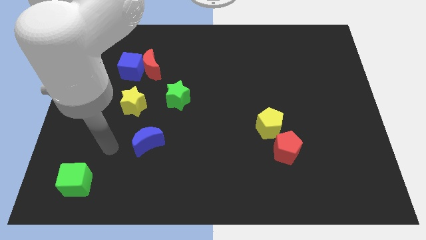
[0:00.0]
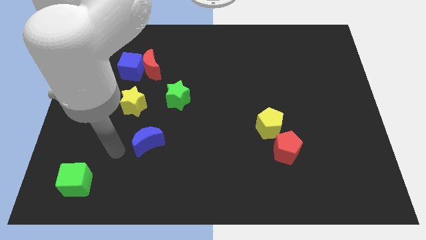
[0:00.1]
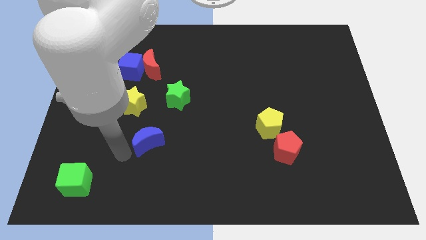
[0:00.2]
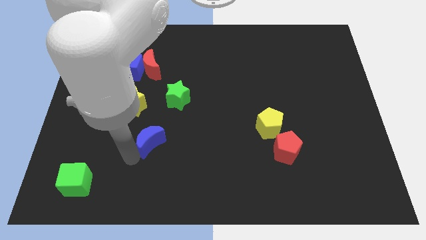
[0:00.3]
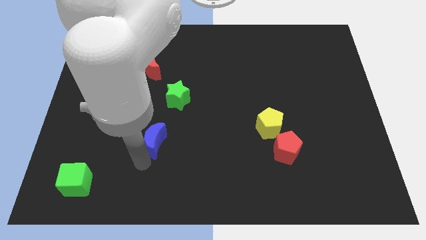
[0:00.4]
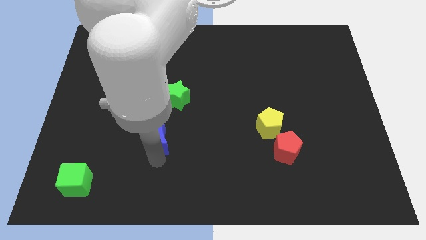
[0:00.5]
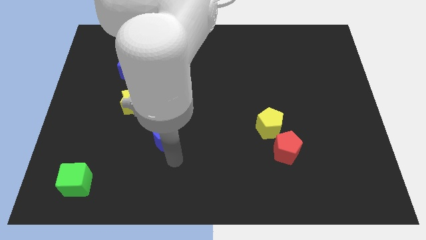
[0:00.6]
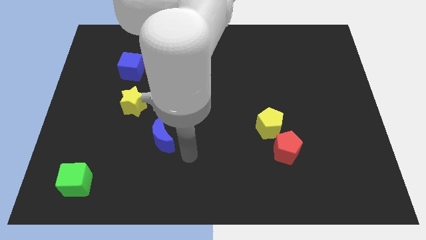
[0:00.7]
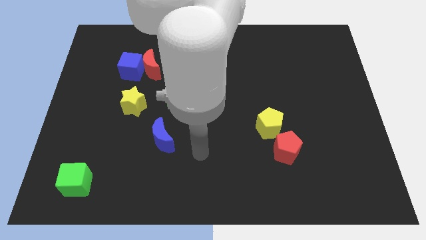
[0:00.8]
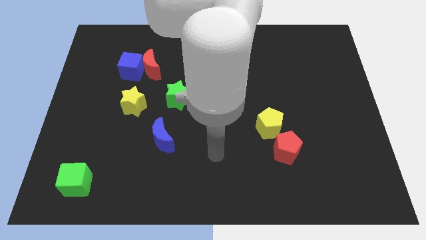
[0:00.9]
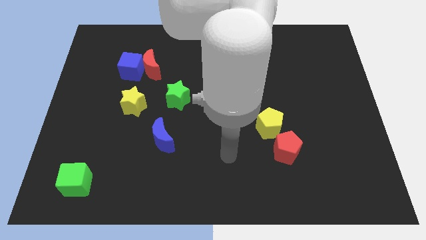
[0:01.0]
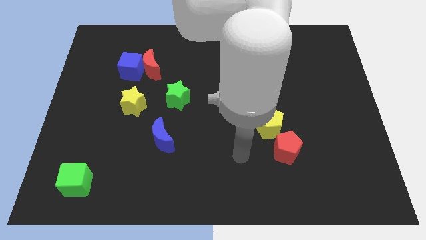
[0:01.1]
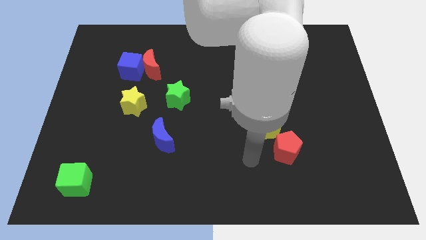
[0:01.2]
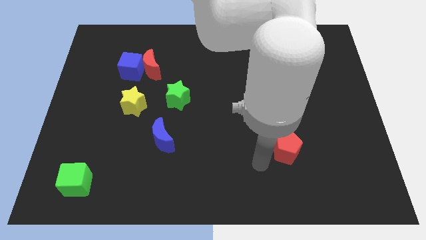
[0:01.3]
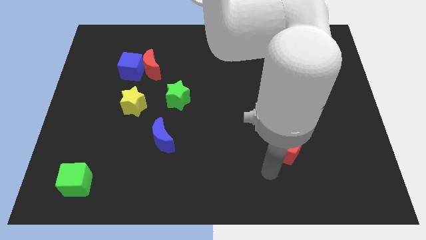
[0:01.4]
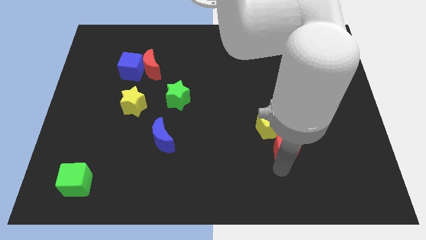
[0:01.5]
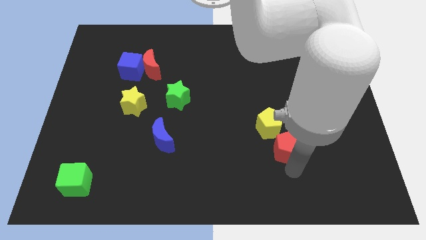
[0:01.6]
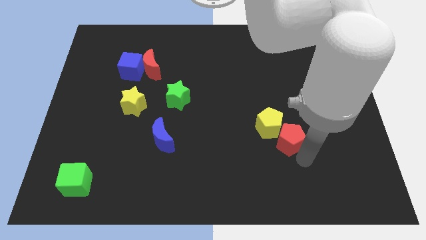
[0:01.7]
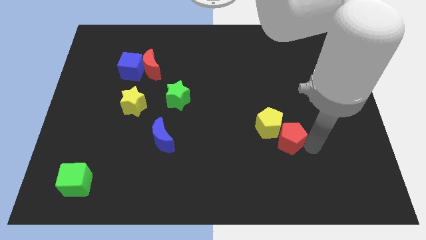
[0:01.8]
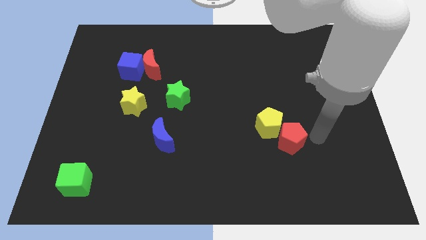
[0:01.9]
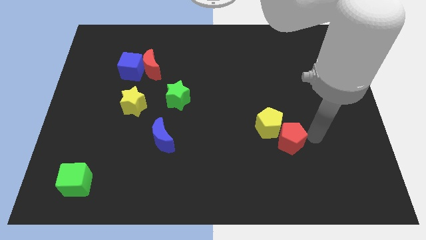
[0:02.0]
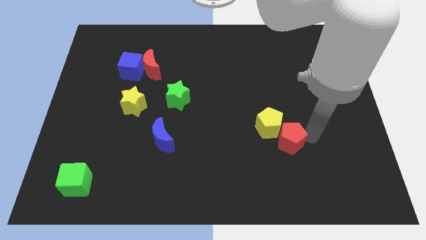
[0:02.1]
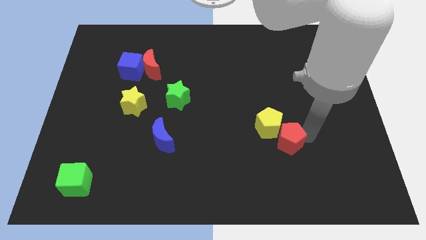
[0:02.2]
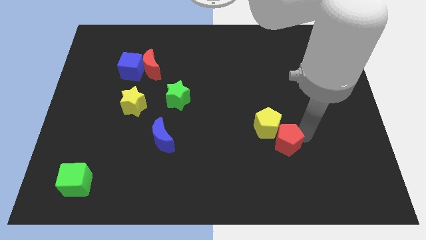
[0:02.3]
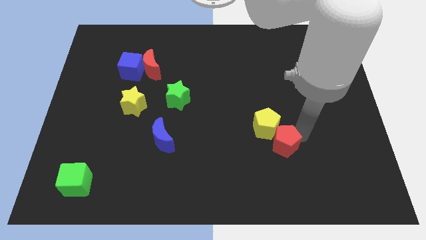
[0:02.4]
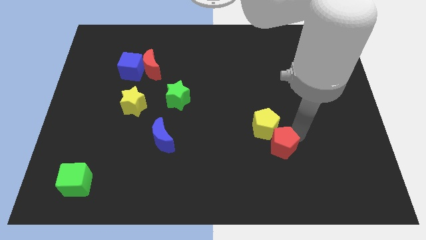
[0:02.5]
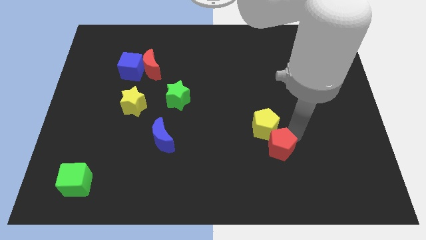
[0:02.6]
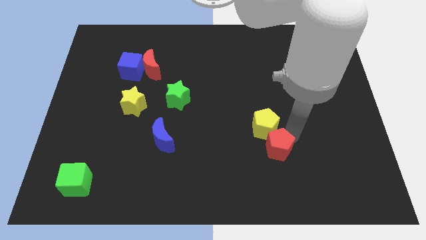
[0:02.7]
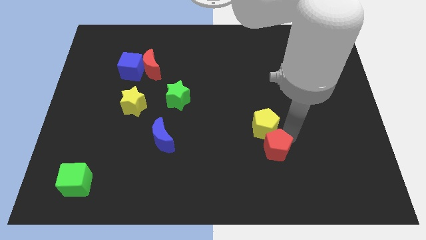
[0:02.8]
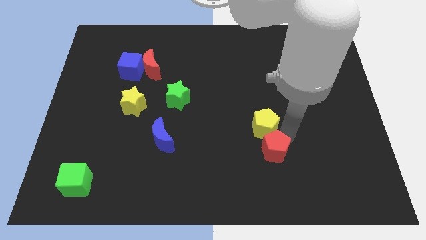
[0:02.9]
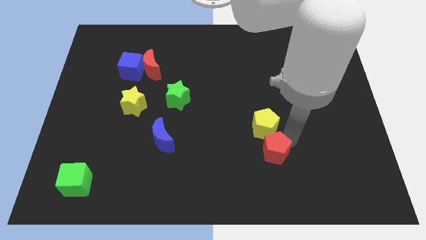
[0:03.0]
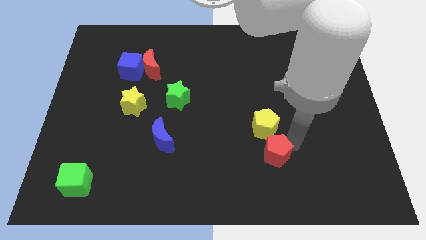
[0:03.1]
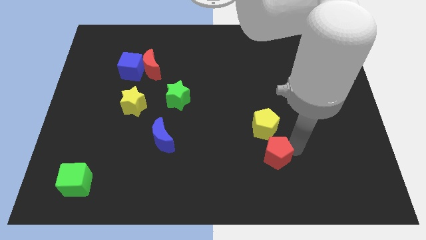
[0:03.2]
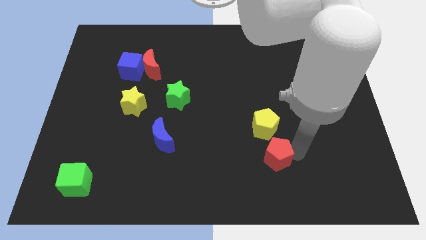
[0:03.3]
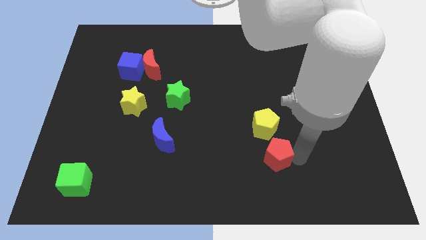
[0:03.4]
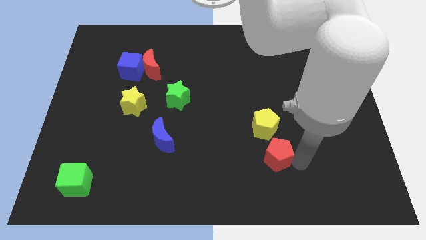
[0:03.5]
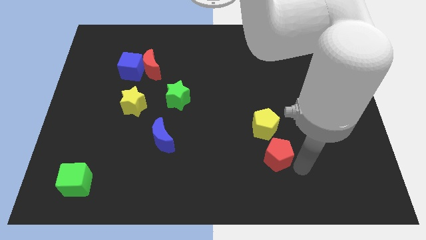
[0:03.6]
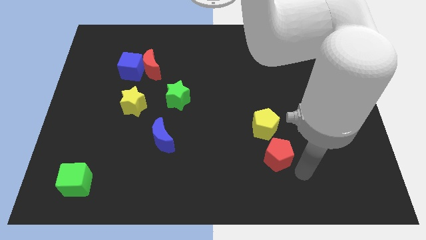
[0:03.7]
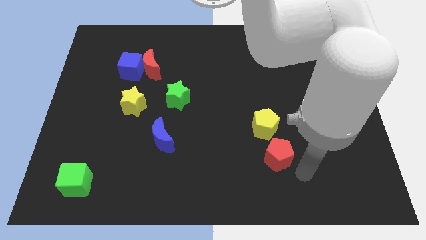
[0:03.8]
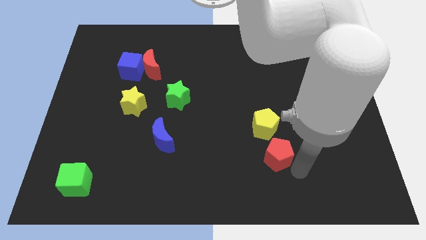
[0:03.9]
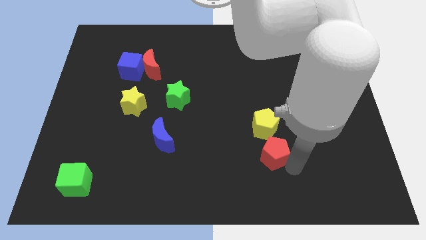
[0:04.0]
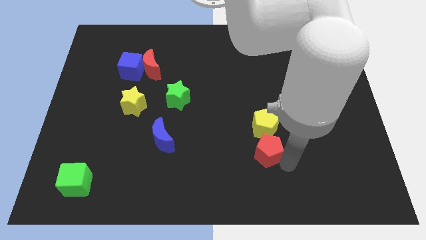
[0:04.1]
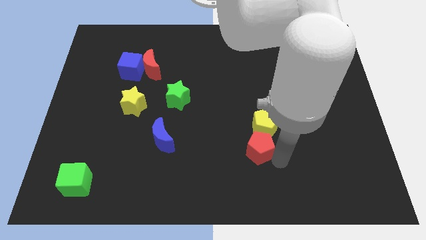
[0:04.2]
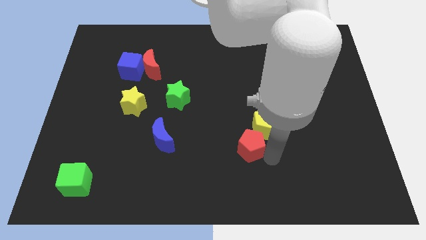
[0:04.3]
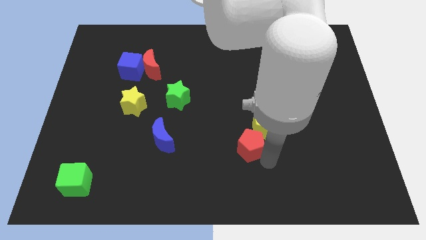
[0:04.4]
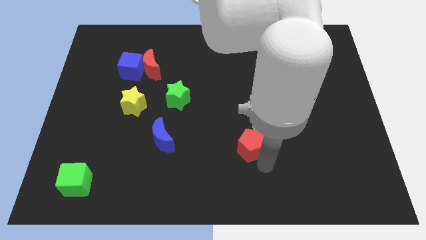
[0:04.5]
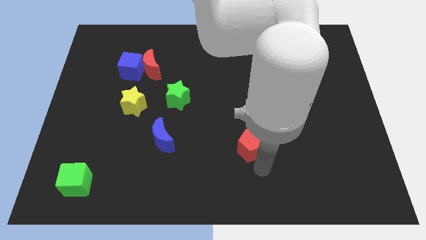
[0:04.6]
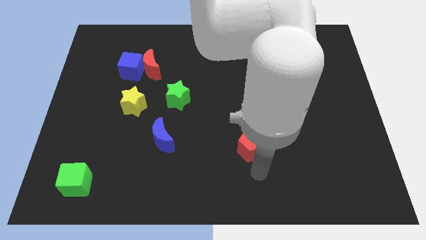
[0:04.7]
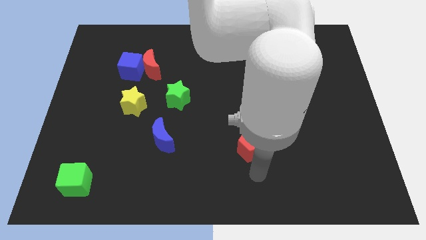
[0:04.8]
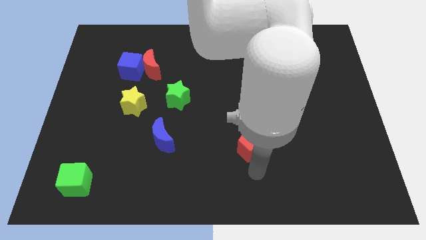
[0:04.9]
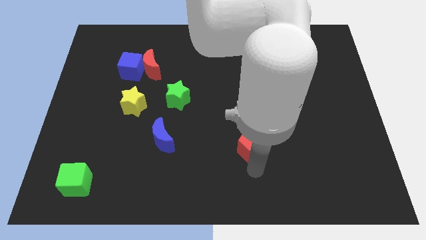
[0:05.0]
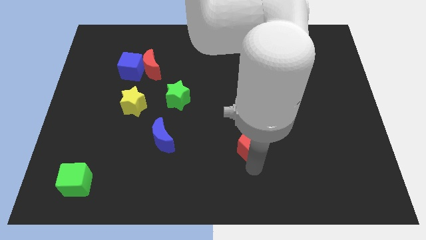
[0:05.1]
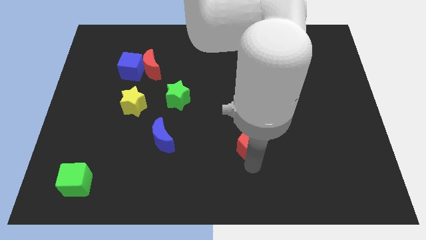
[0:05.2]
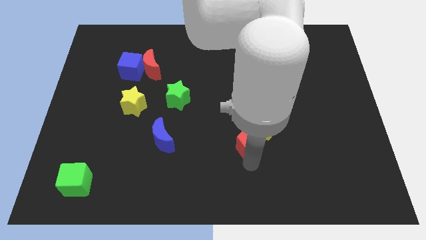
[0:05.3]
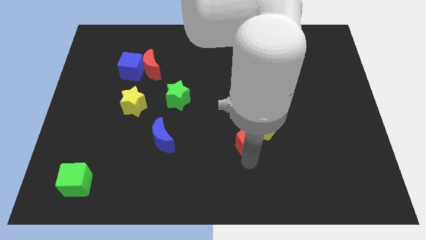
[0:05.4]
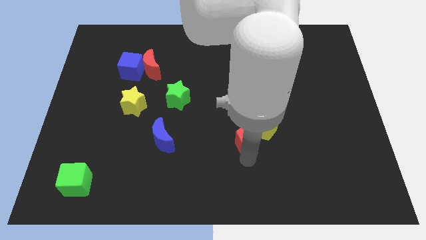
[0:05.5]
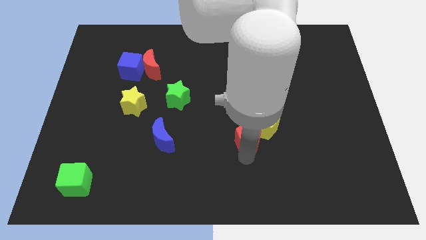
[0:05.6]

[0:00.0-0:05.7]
move the red pentagon diagonally up and left slightly

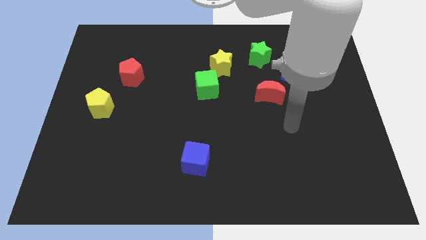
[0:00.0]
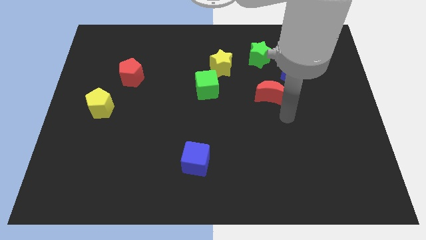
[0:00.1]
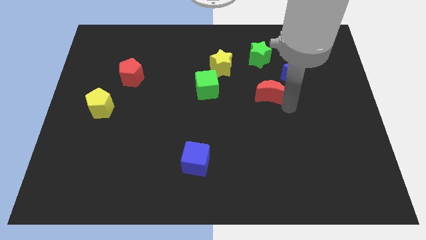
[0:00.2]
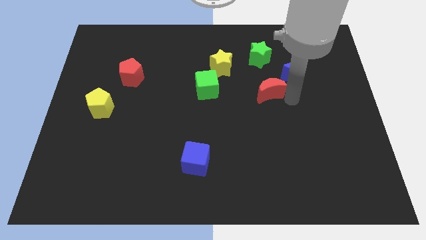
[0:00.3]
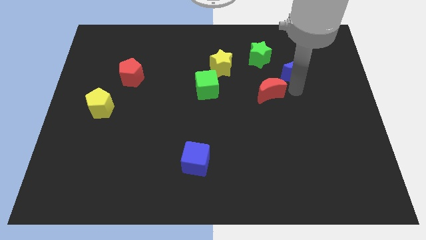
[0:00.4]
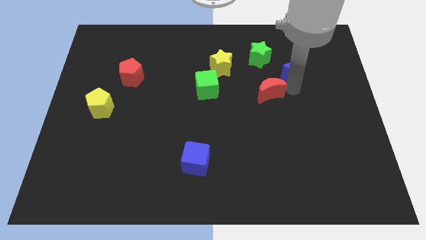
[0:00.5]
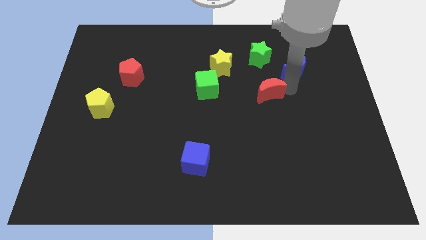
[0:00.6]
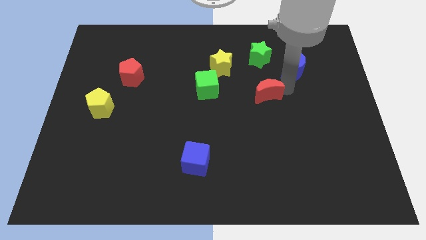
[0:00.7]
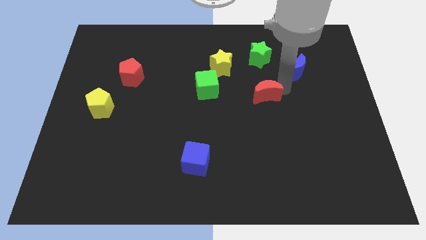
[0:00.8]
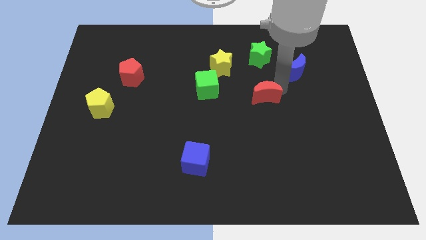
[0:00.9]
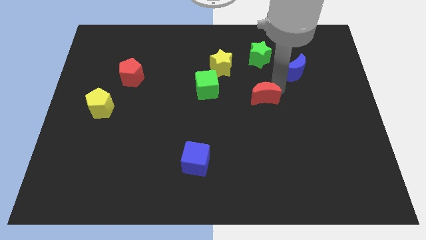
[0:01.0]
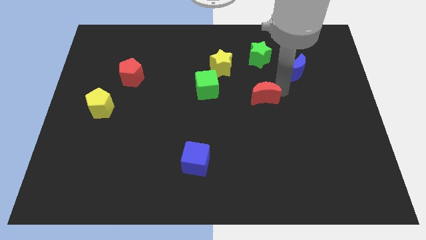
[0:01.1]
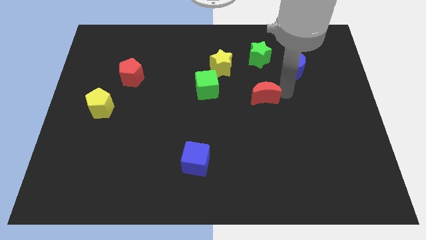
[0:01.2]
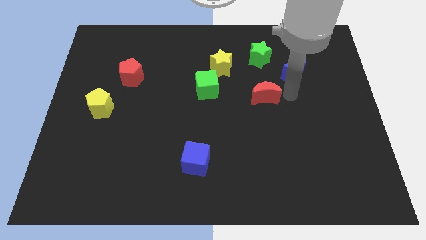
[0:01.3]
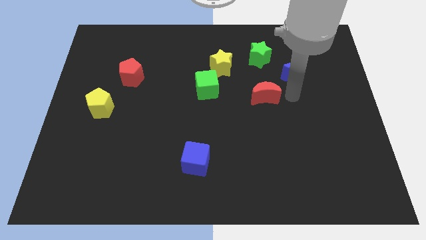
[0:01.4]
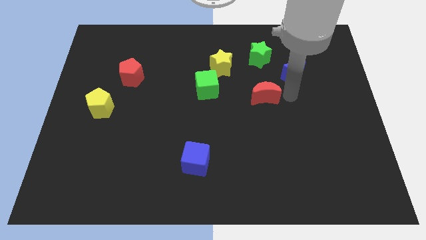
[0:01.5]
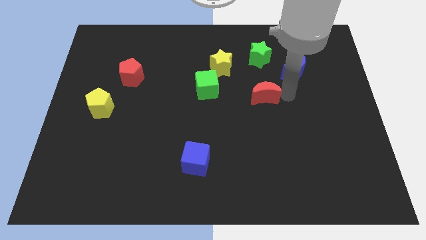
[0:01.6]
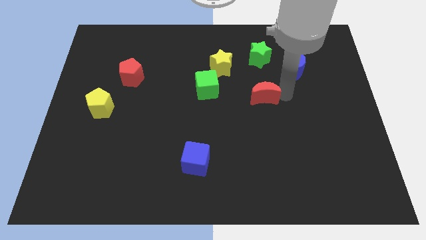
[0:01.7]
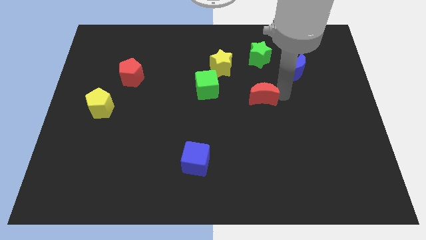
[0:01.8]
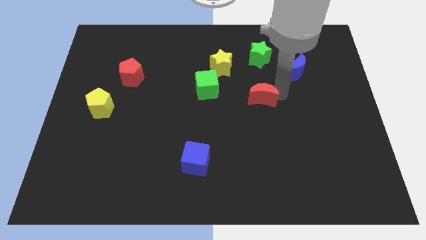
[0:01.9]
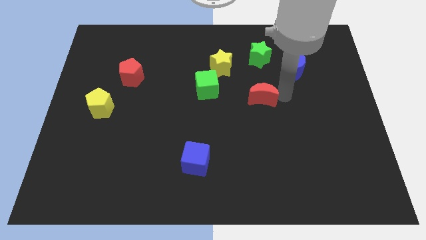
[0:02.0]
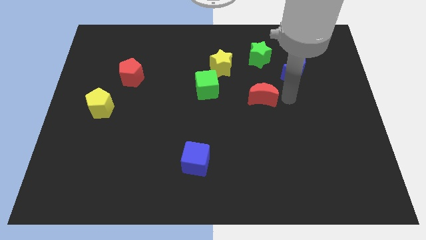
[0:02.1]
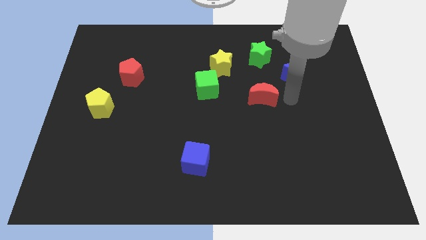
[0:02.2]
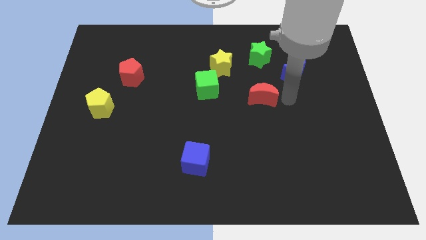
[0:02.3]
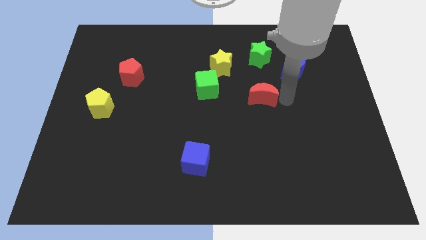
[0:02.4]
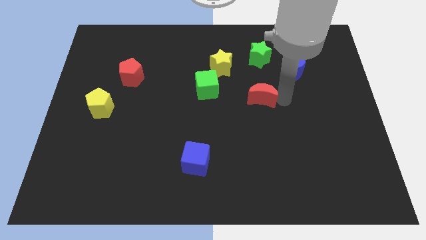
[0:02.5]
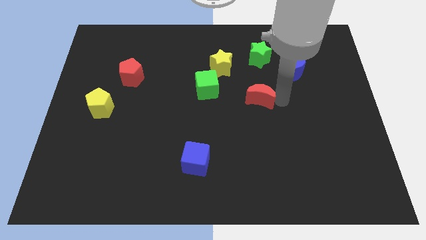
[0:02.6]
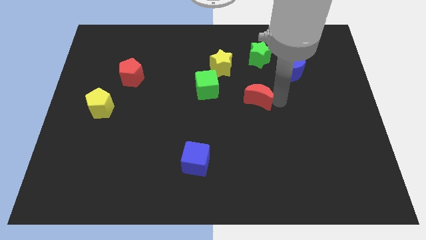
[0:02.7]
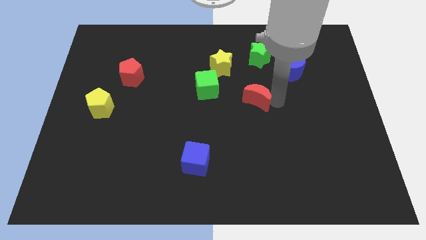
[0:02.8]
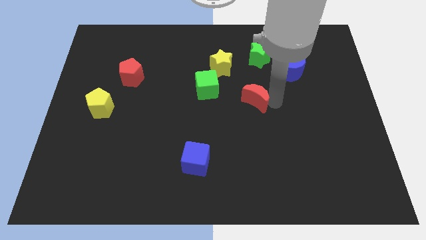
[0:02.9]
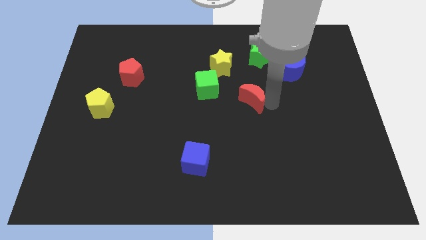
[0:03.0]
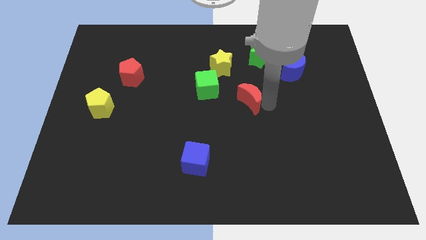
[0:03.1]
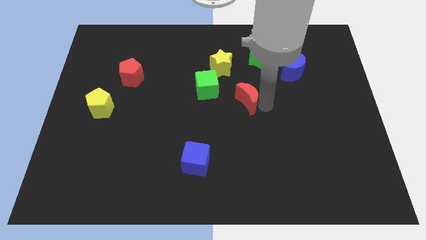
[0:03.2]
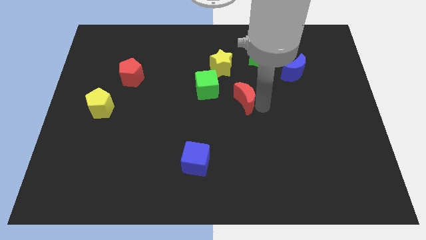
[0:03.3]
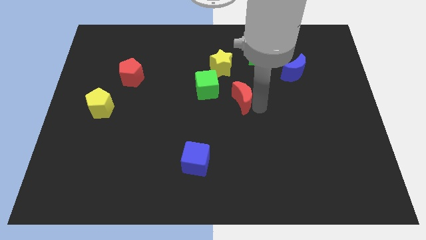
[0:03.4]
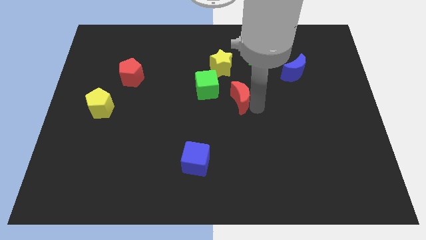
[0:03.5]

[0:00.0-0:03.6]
slide the red moon a little to the left
